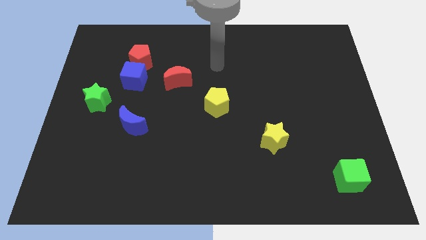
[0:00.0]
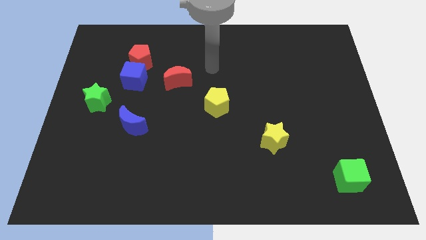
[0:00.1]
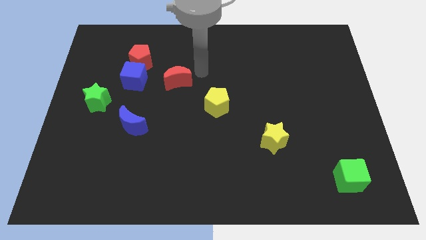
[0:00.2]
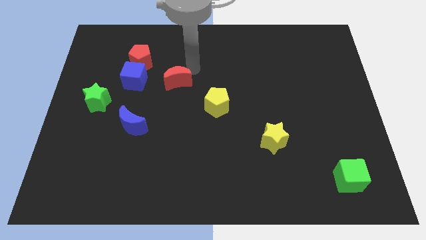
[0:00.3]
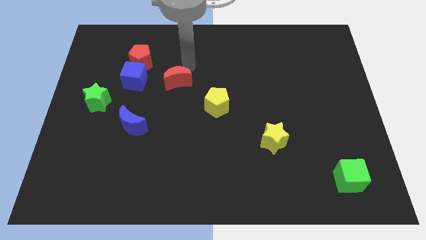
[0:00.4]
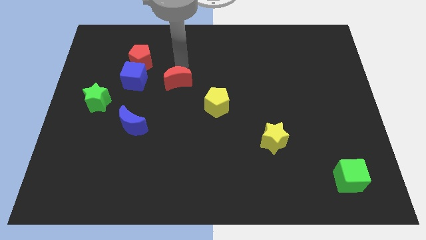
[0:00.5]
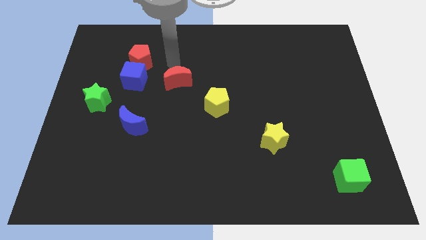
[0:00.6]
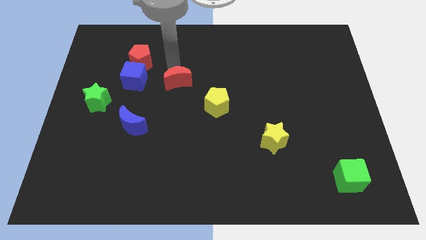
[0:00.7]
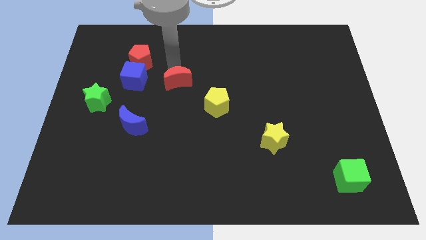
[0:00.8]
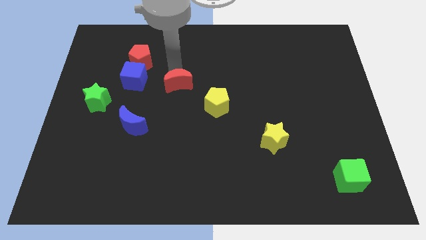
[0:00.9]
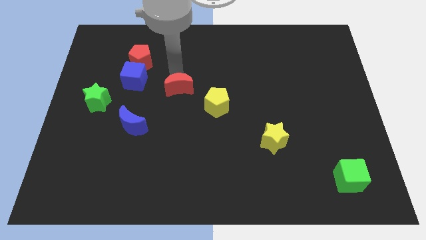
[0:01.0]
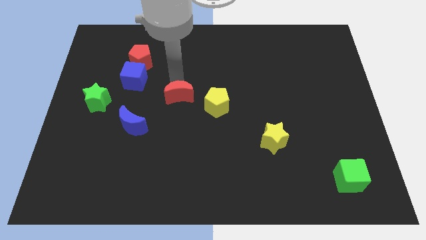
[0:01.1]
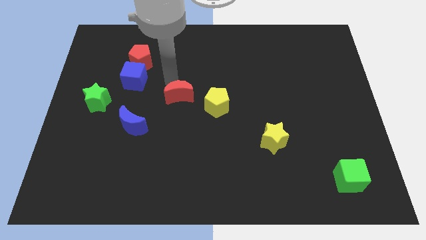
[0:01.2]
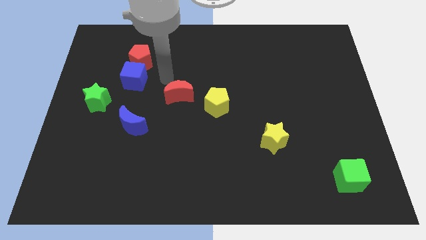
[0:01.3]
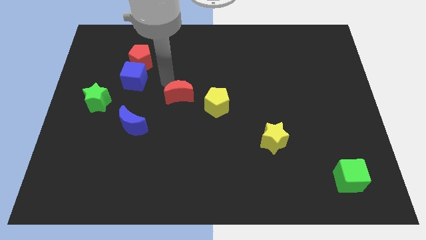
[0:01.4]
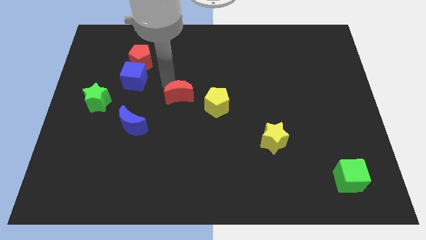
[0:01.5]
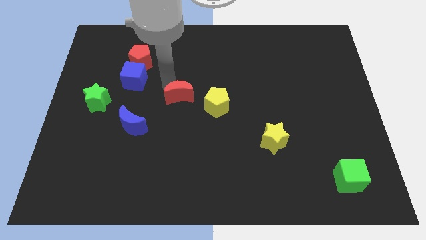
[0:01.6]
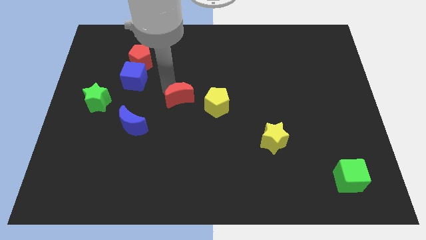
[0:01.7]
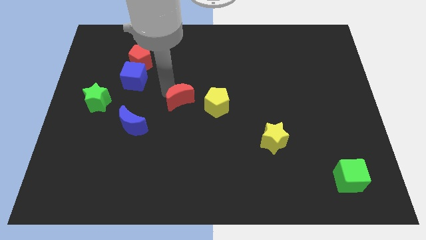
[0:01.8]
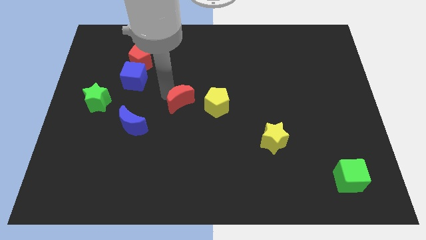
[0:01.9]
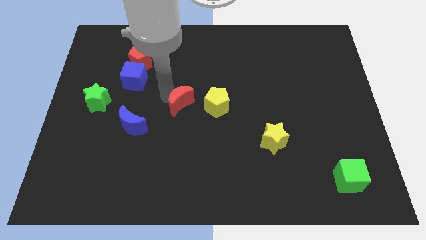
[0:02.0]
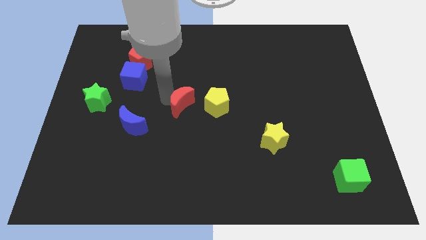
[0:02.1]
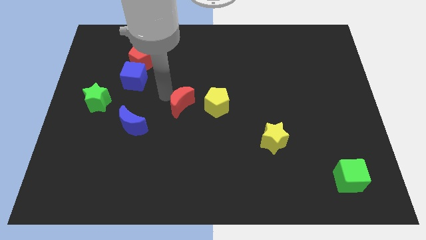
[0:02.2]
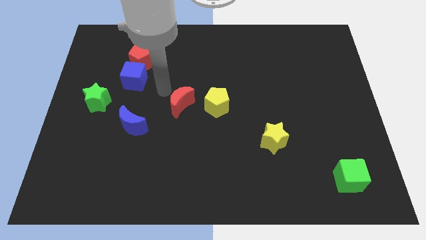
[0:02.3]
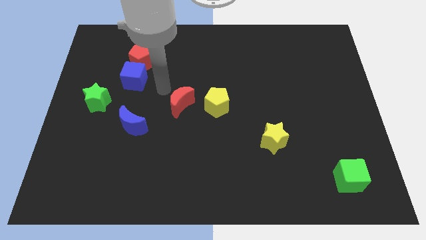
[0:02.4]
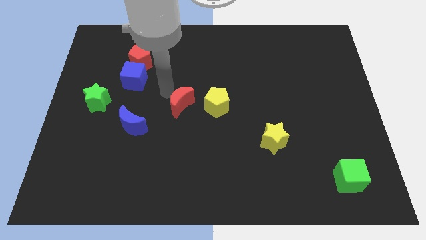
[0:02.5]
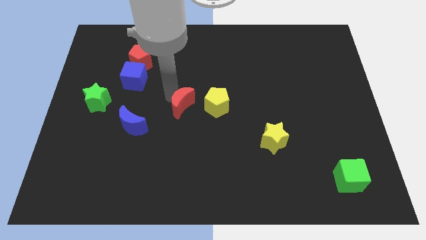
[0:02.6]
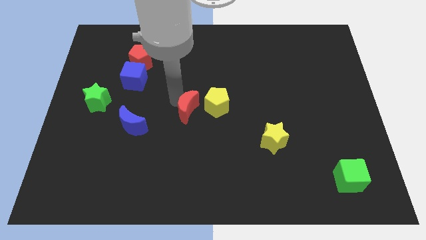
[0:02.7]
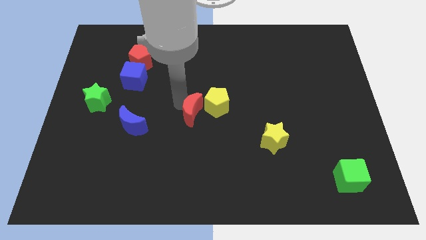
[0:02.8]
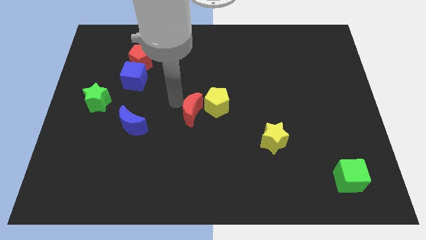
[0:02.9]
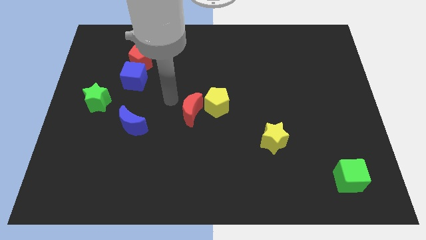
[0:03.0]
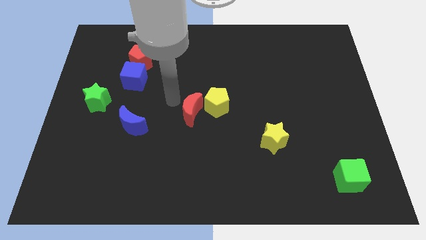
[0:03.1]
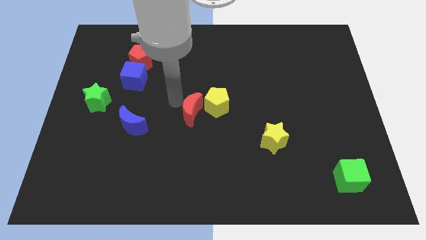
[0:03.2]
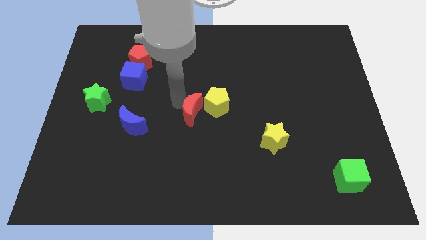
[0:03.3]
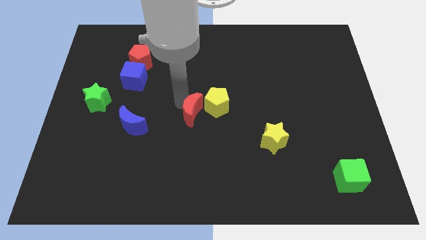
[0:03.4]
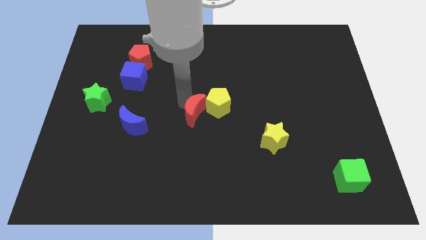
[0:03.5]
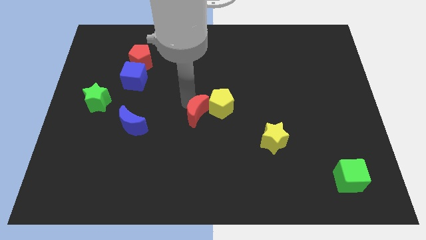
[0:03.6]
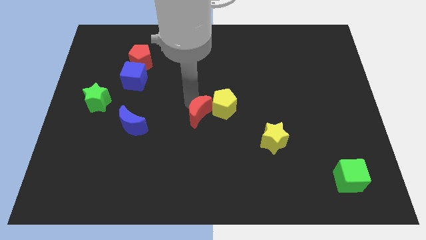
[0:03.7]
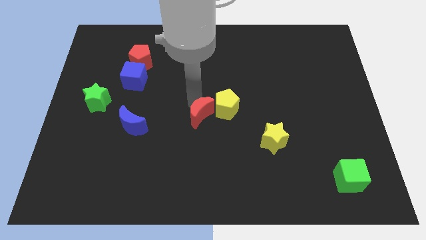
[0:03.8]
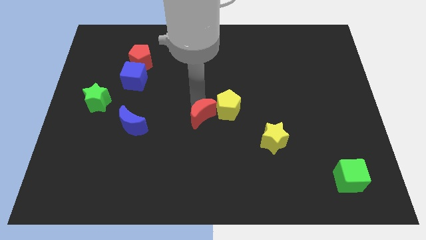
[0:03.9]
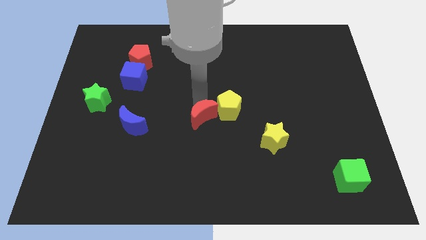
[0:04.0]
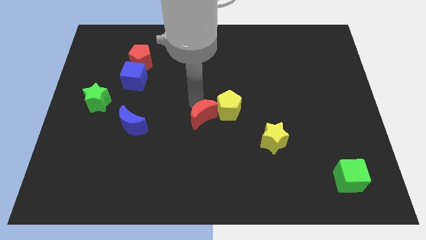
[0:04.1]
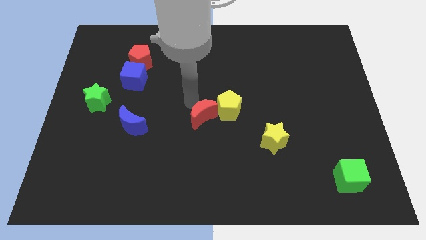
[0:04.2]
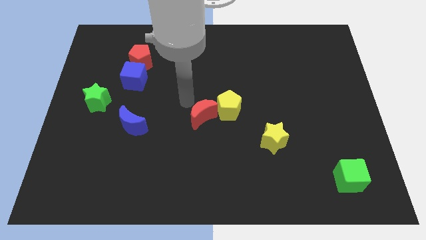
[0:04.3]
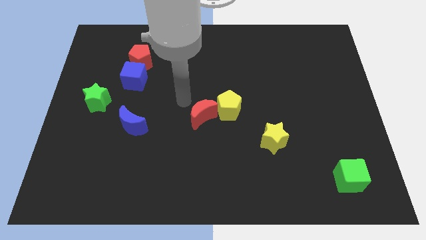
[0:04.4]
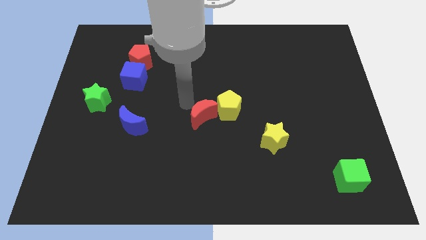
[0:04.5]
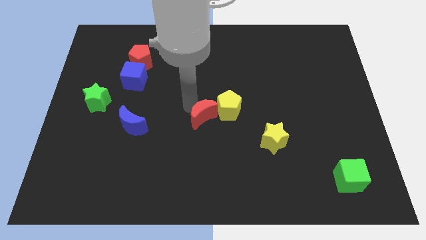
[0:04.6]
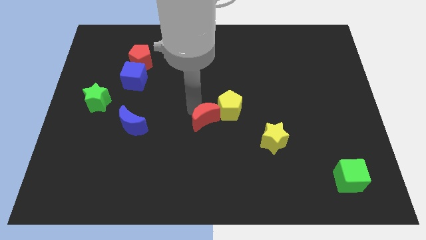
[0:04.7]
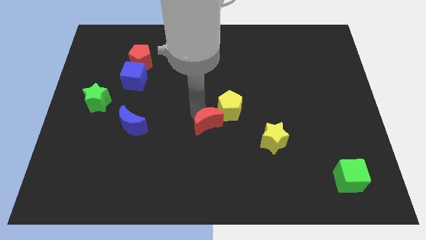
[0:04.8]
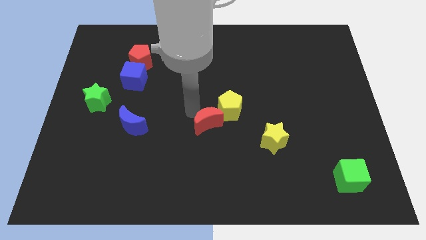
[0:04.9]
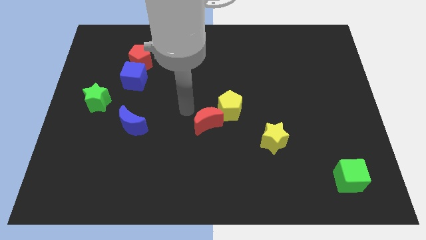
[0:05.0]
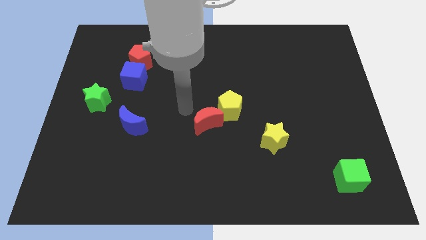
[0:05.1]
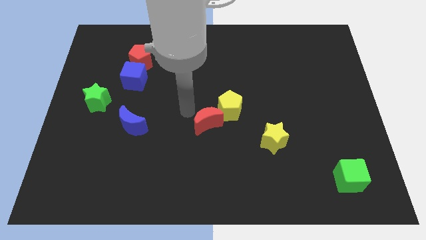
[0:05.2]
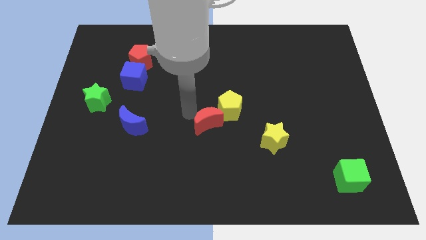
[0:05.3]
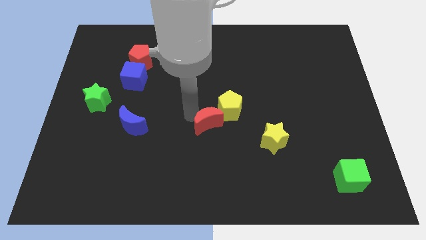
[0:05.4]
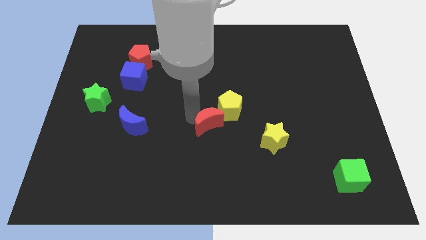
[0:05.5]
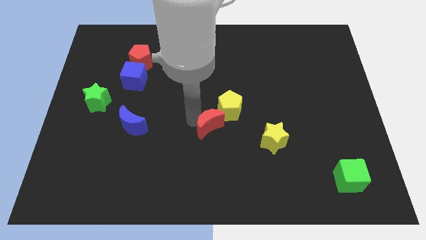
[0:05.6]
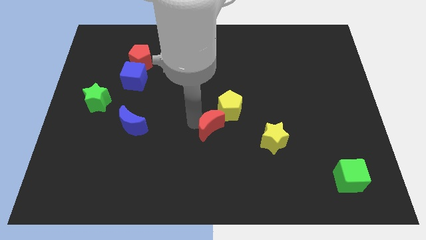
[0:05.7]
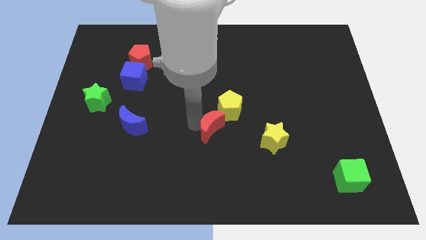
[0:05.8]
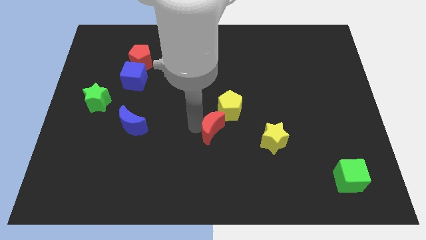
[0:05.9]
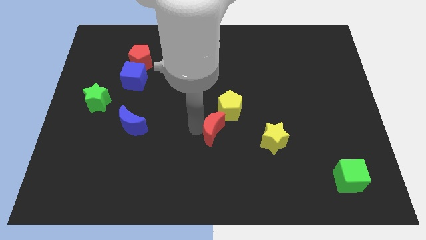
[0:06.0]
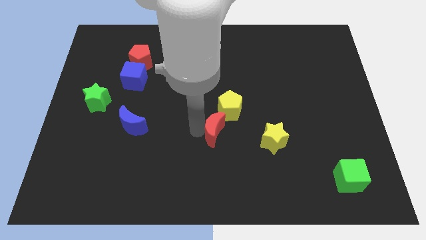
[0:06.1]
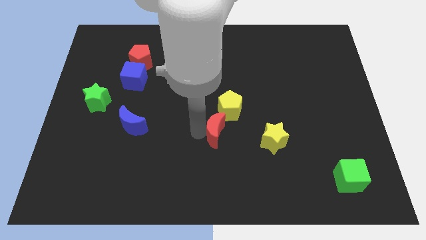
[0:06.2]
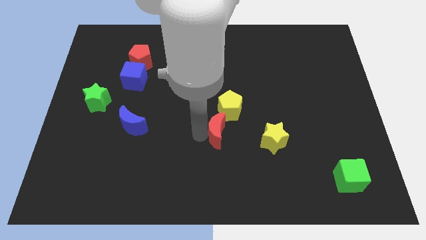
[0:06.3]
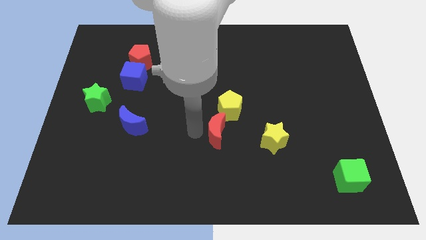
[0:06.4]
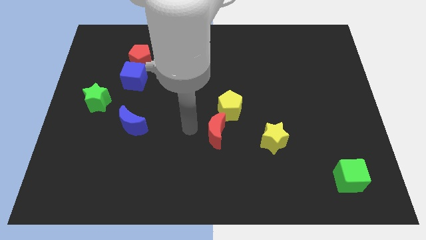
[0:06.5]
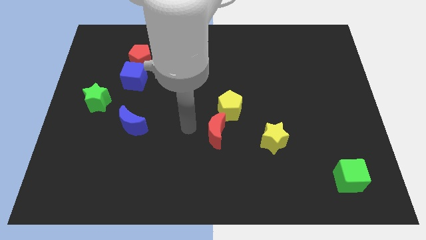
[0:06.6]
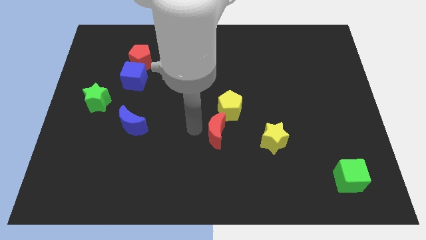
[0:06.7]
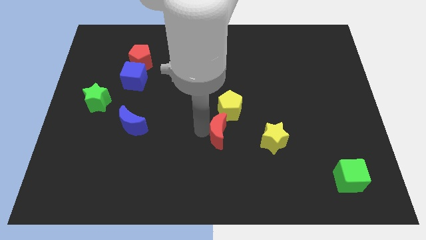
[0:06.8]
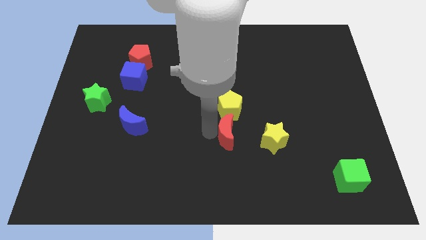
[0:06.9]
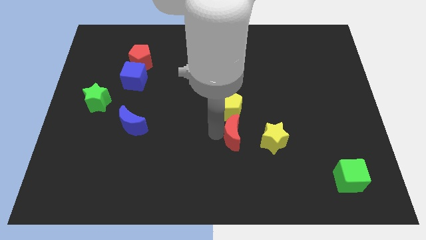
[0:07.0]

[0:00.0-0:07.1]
slide the red moon diagonally downwards and right

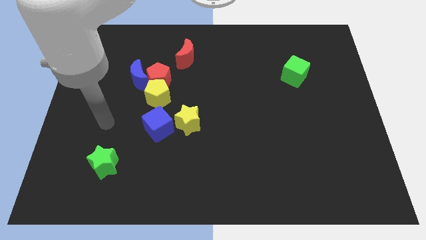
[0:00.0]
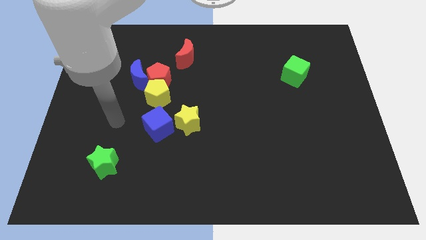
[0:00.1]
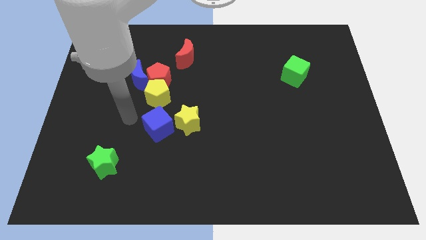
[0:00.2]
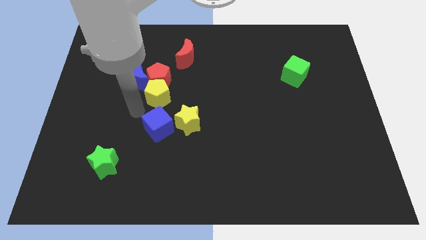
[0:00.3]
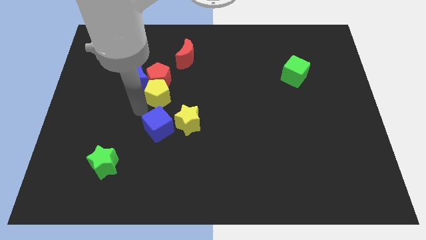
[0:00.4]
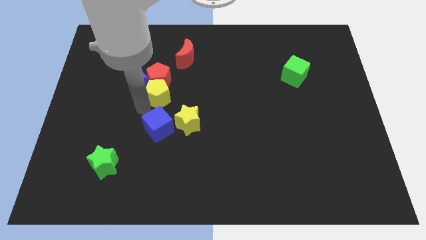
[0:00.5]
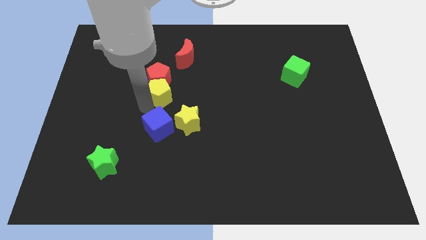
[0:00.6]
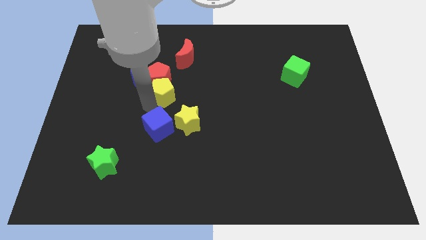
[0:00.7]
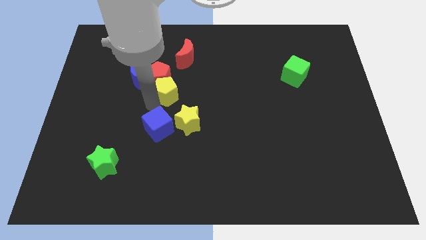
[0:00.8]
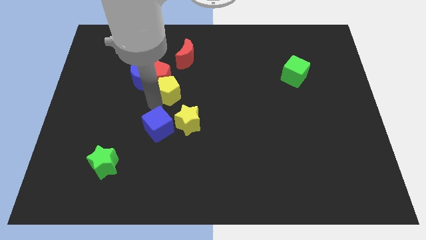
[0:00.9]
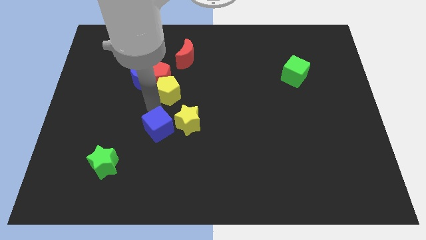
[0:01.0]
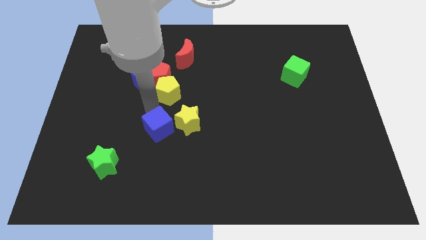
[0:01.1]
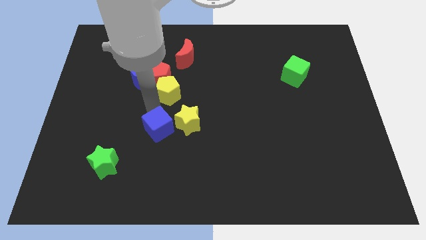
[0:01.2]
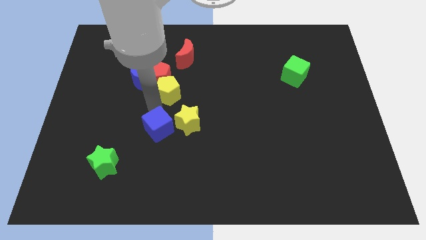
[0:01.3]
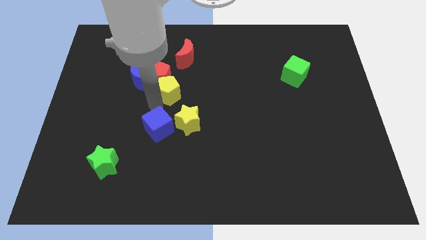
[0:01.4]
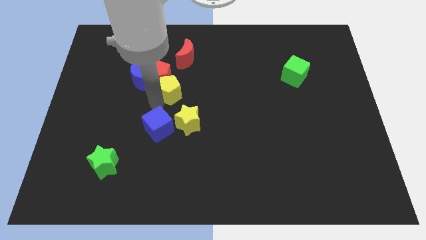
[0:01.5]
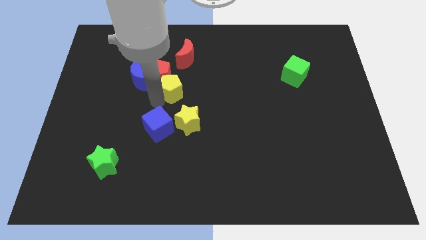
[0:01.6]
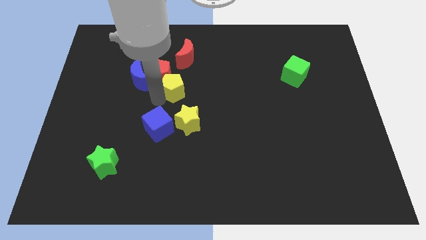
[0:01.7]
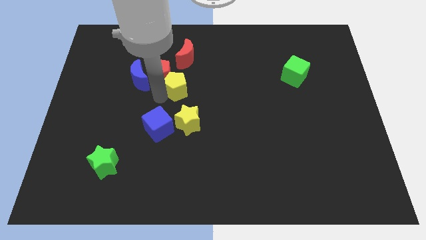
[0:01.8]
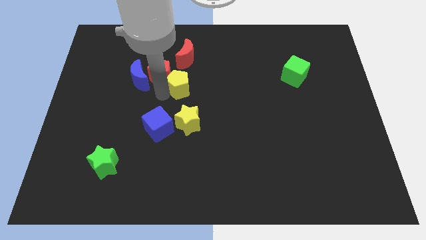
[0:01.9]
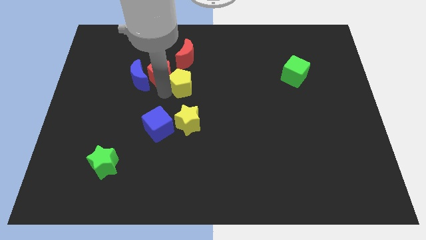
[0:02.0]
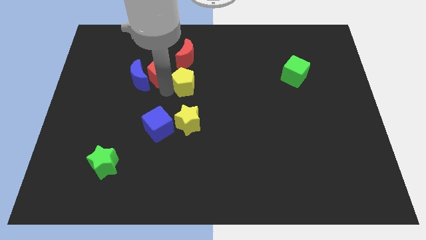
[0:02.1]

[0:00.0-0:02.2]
move the yellow pentagon a bit up and then to the right
